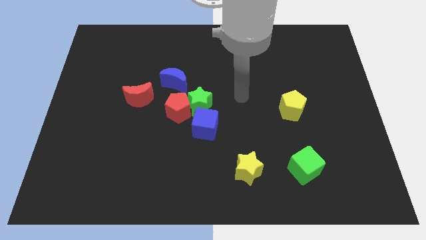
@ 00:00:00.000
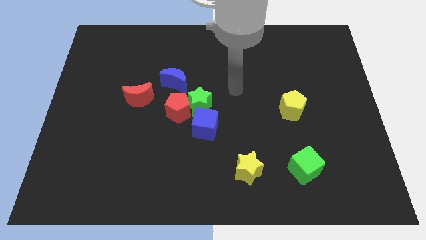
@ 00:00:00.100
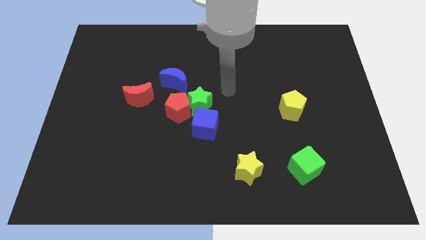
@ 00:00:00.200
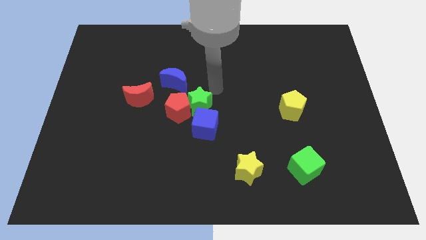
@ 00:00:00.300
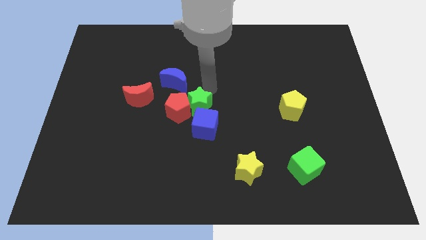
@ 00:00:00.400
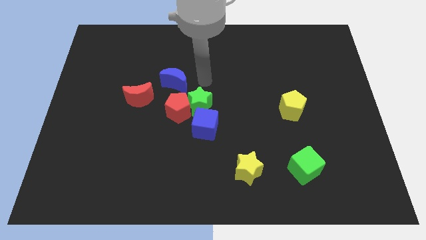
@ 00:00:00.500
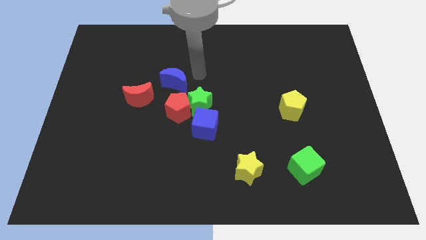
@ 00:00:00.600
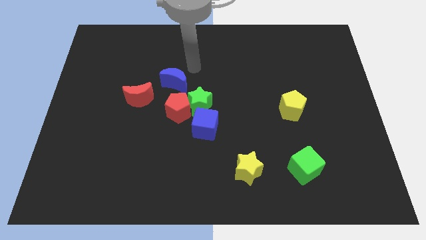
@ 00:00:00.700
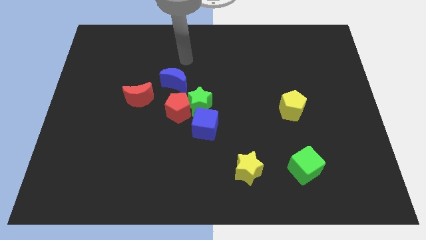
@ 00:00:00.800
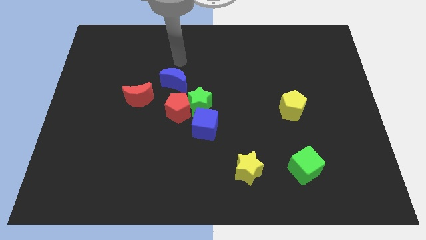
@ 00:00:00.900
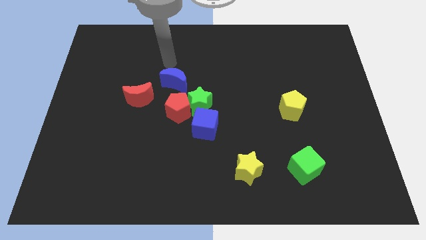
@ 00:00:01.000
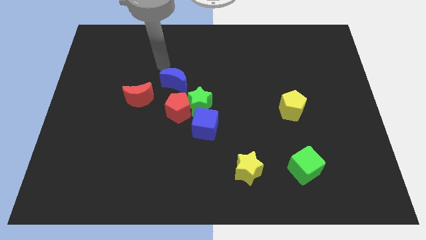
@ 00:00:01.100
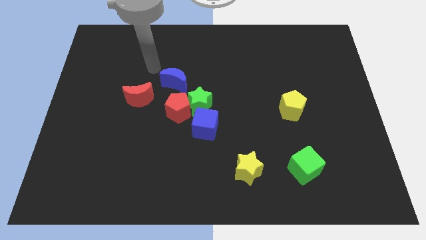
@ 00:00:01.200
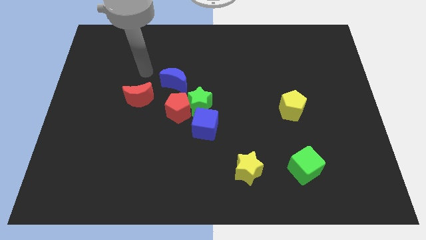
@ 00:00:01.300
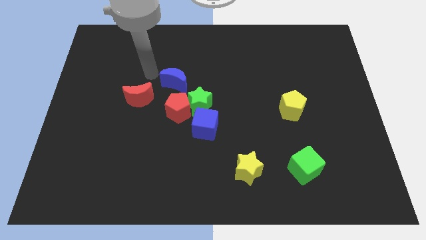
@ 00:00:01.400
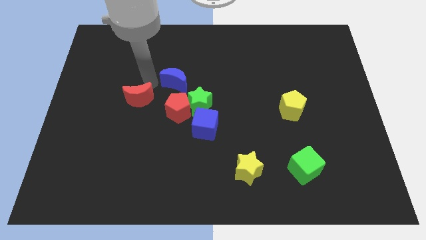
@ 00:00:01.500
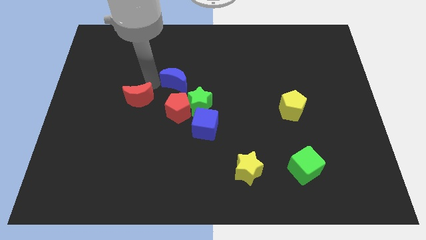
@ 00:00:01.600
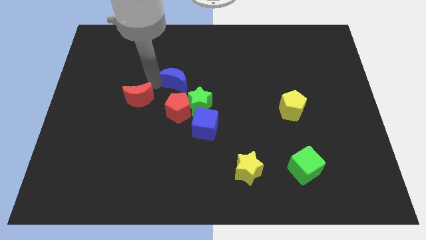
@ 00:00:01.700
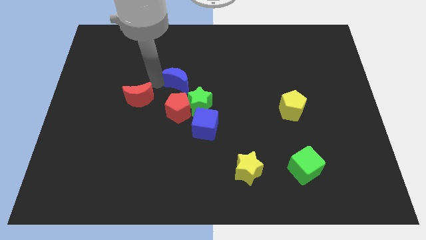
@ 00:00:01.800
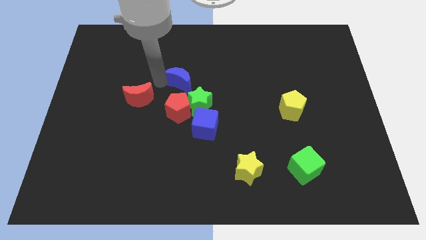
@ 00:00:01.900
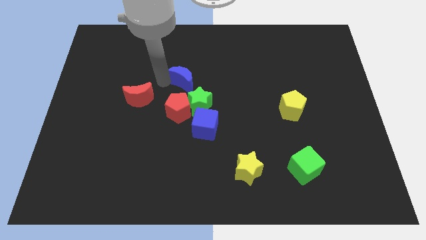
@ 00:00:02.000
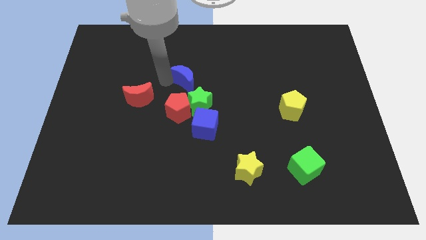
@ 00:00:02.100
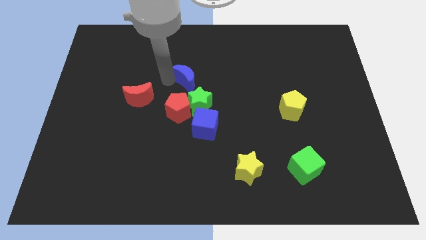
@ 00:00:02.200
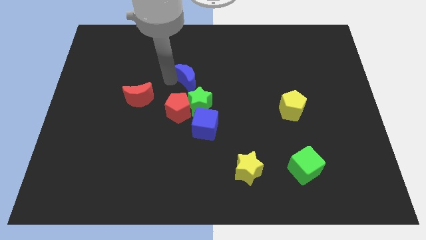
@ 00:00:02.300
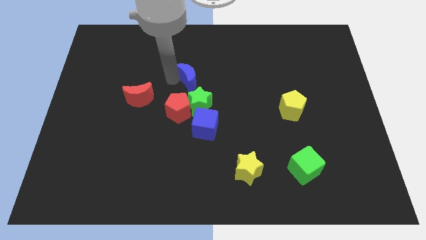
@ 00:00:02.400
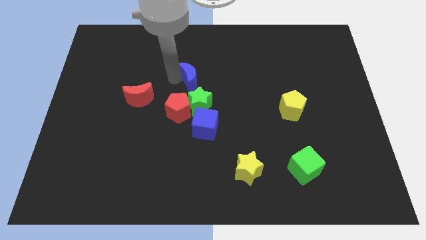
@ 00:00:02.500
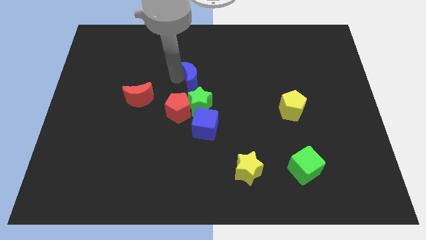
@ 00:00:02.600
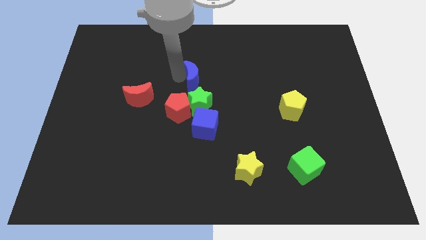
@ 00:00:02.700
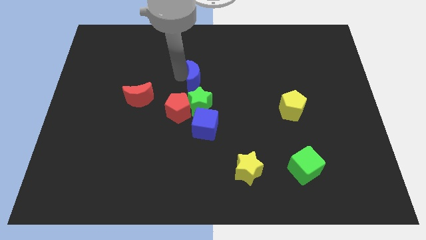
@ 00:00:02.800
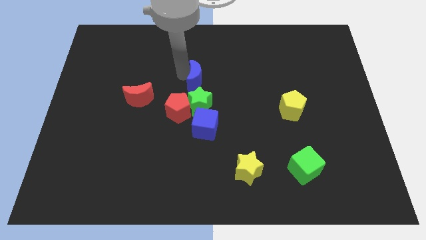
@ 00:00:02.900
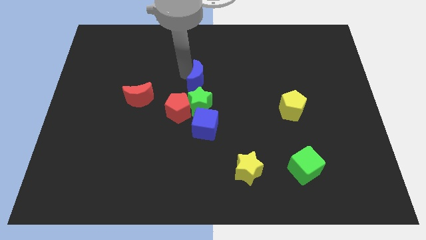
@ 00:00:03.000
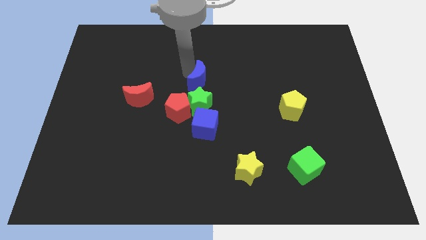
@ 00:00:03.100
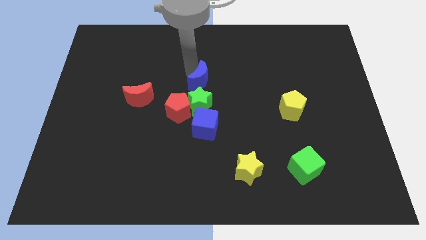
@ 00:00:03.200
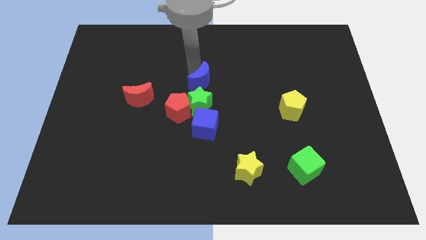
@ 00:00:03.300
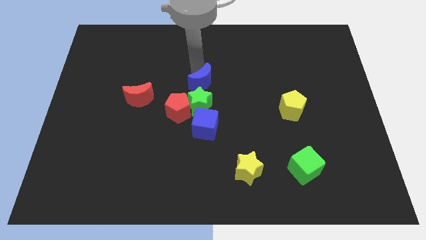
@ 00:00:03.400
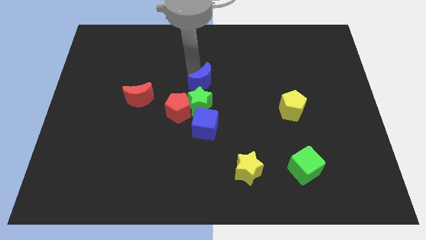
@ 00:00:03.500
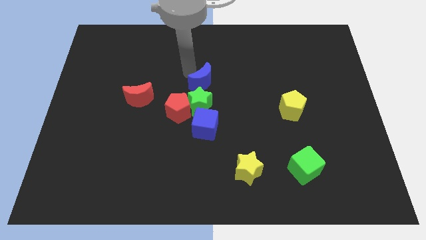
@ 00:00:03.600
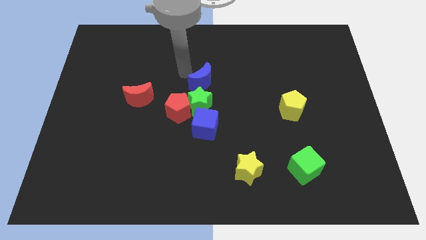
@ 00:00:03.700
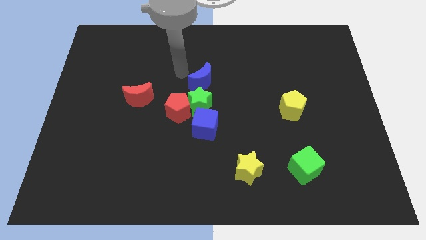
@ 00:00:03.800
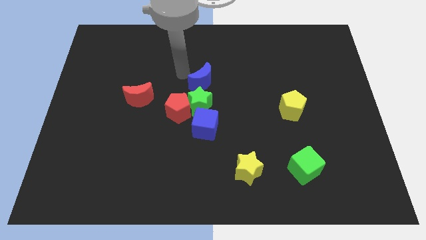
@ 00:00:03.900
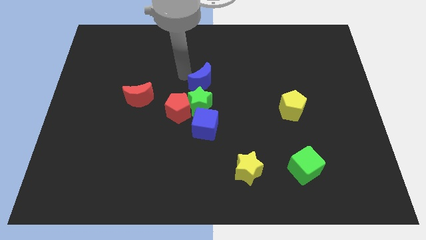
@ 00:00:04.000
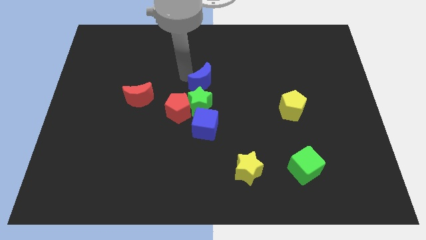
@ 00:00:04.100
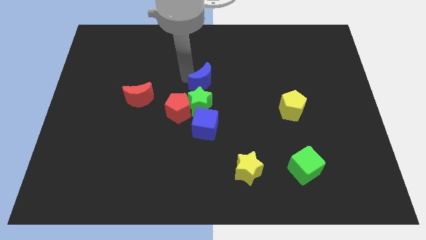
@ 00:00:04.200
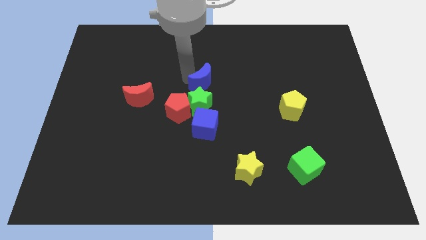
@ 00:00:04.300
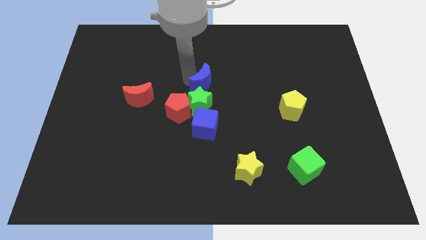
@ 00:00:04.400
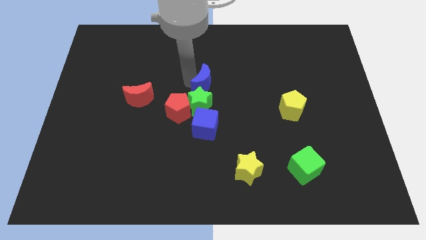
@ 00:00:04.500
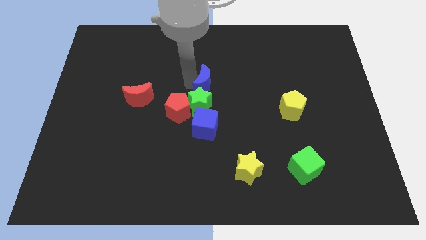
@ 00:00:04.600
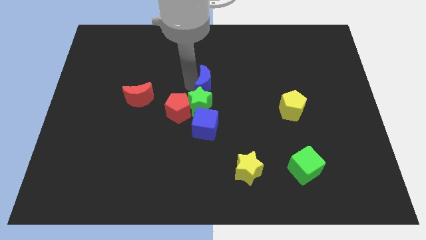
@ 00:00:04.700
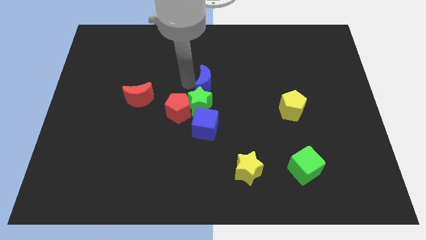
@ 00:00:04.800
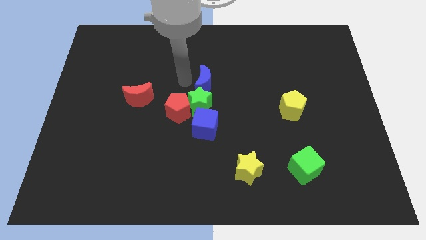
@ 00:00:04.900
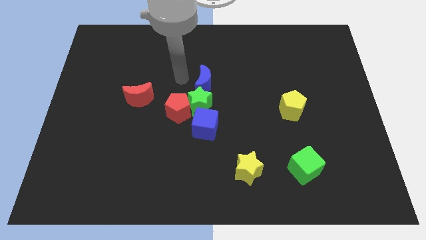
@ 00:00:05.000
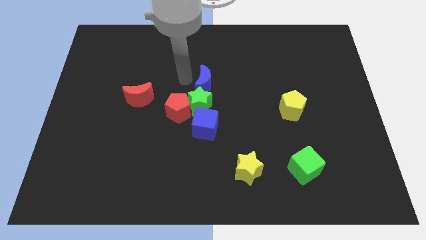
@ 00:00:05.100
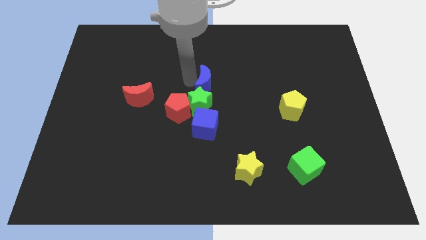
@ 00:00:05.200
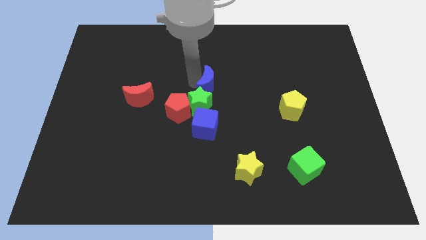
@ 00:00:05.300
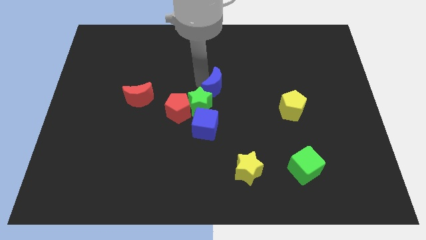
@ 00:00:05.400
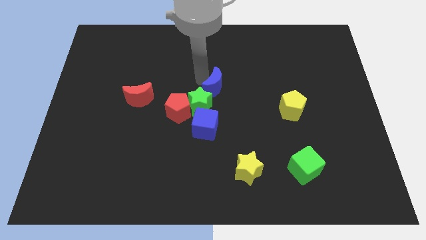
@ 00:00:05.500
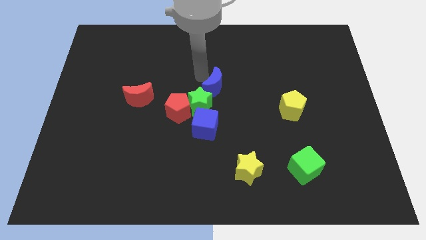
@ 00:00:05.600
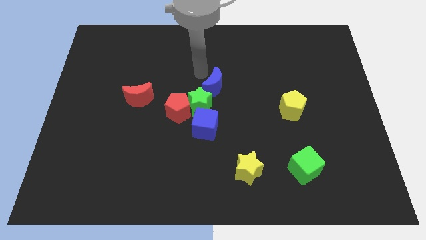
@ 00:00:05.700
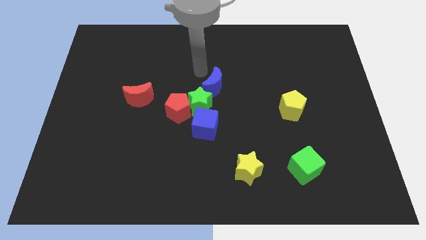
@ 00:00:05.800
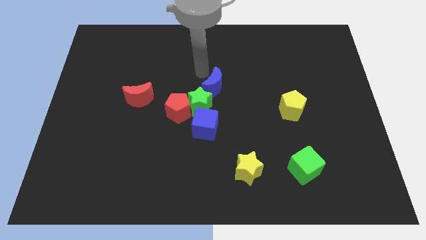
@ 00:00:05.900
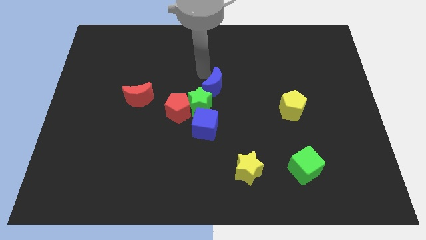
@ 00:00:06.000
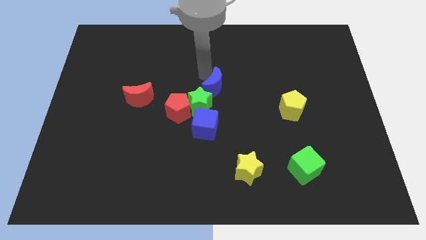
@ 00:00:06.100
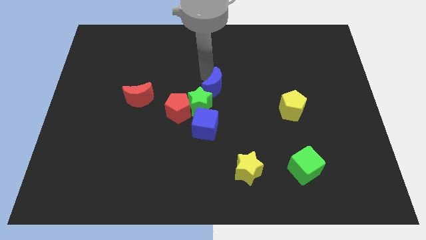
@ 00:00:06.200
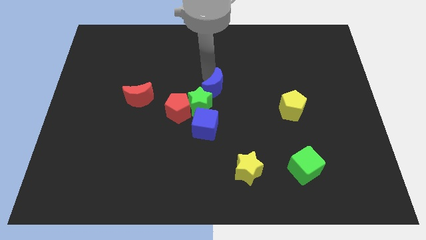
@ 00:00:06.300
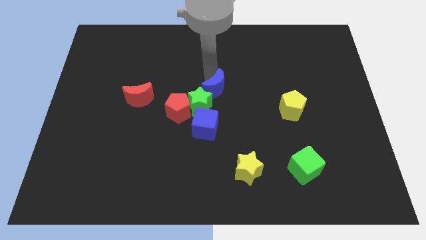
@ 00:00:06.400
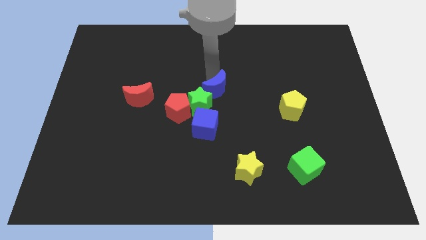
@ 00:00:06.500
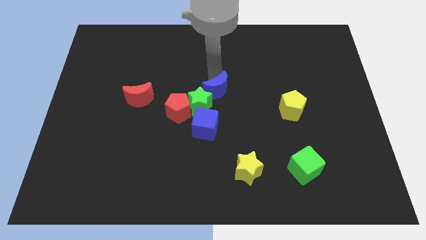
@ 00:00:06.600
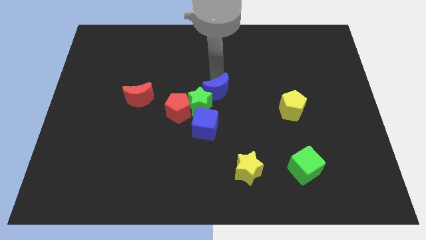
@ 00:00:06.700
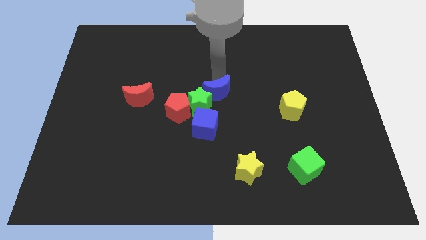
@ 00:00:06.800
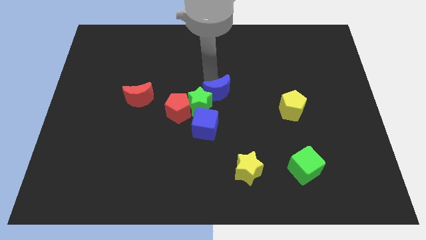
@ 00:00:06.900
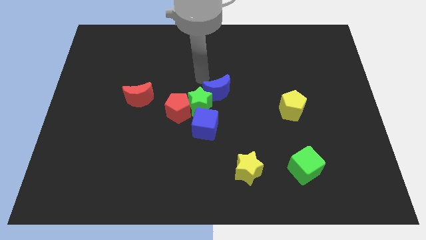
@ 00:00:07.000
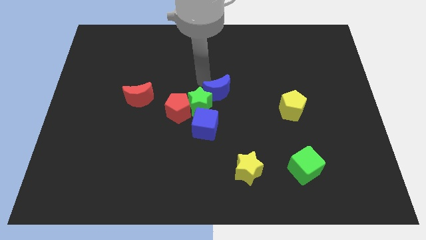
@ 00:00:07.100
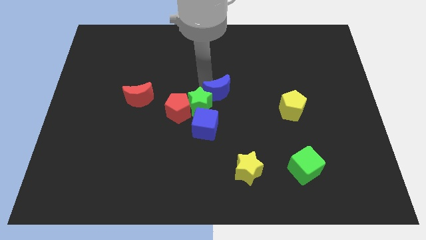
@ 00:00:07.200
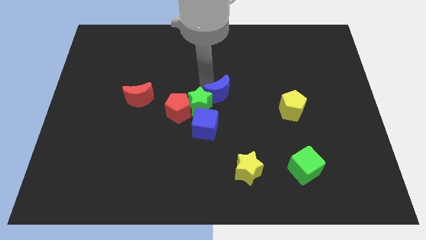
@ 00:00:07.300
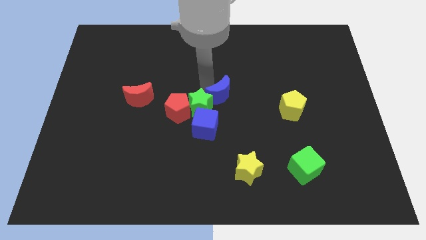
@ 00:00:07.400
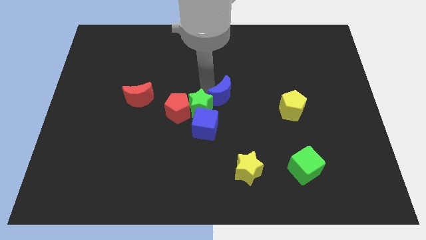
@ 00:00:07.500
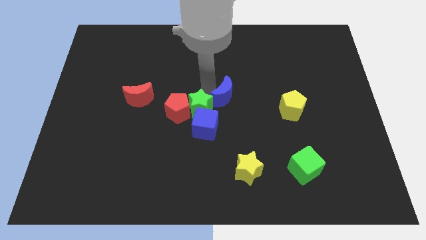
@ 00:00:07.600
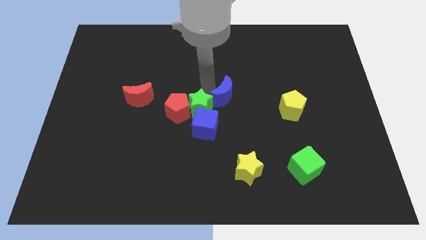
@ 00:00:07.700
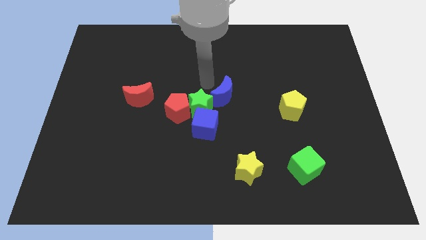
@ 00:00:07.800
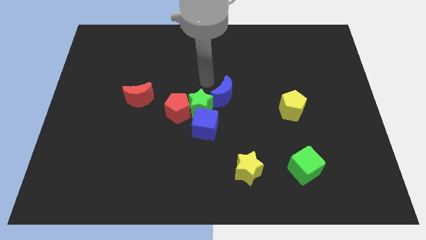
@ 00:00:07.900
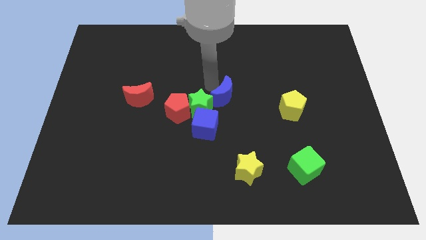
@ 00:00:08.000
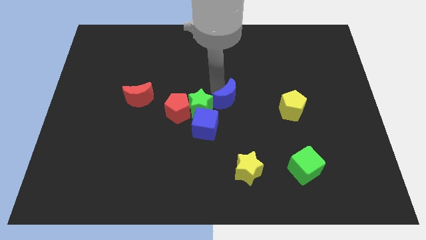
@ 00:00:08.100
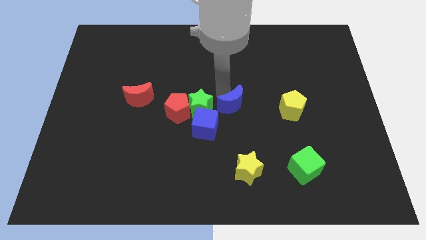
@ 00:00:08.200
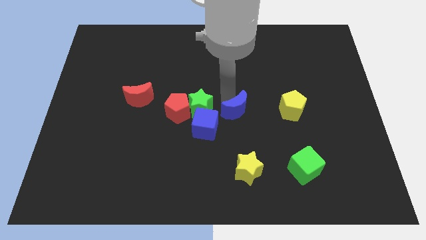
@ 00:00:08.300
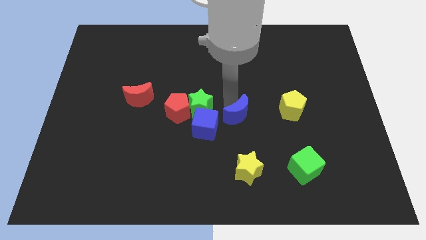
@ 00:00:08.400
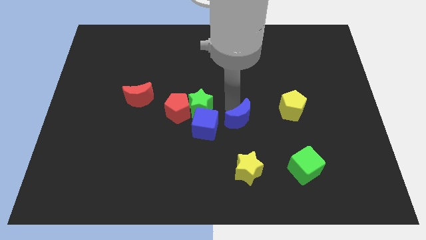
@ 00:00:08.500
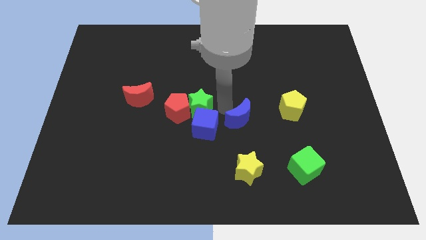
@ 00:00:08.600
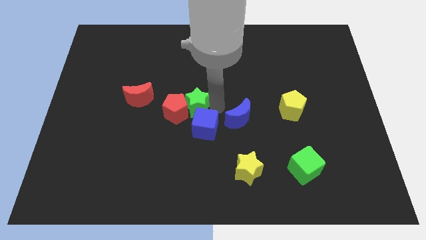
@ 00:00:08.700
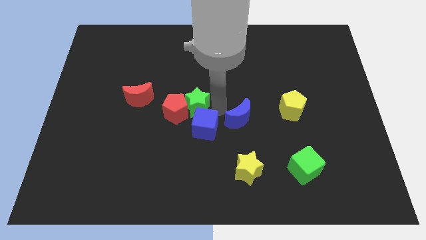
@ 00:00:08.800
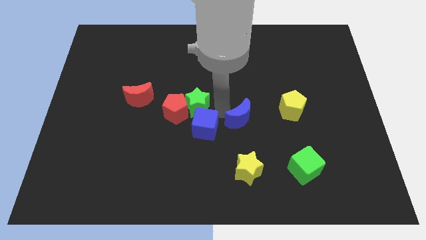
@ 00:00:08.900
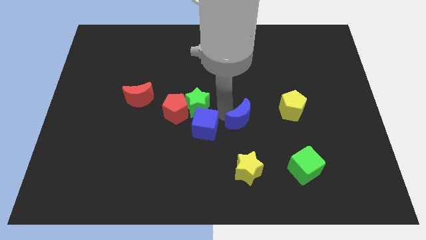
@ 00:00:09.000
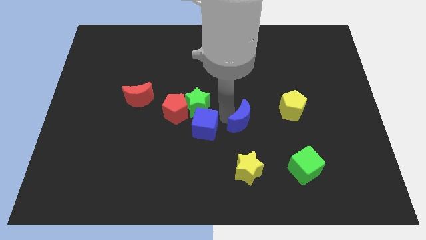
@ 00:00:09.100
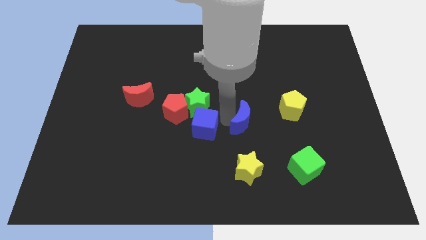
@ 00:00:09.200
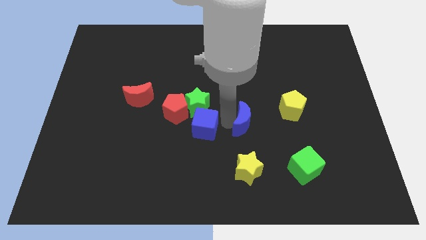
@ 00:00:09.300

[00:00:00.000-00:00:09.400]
push the blue moon down and right diagonally
